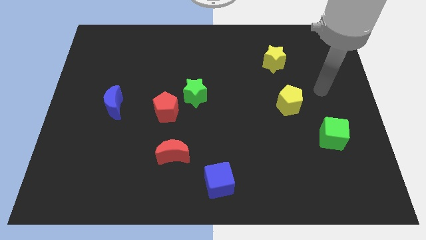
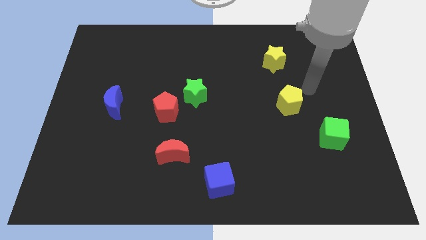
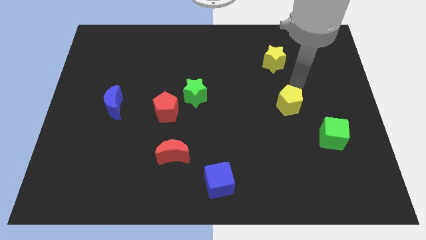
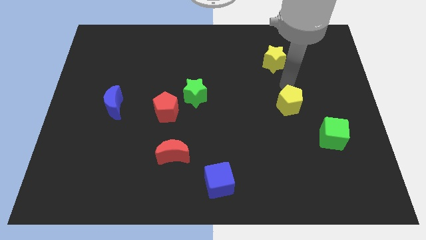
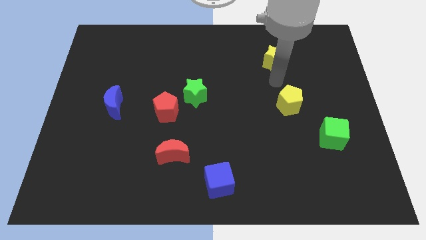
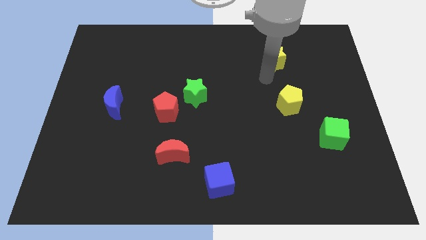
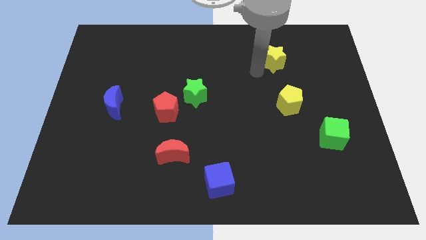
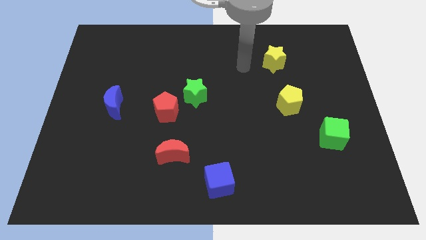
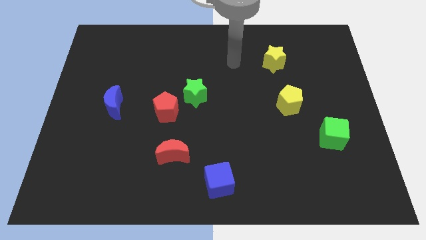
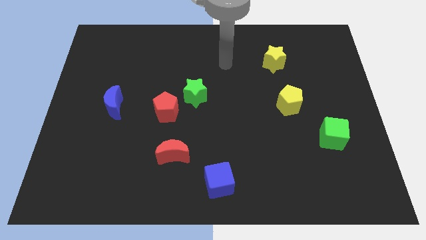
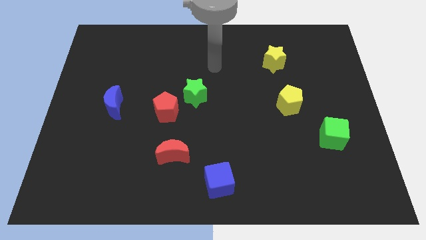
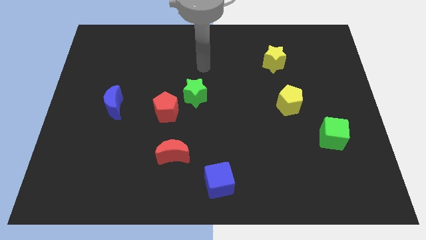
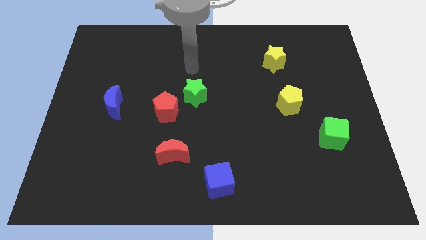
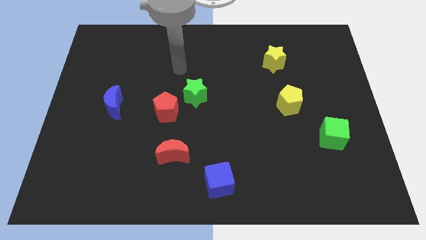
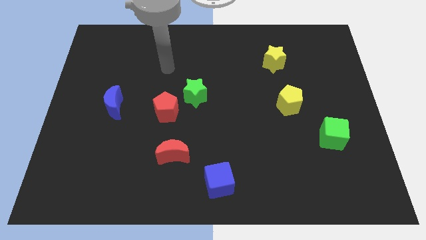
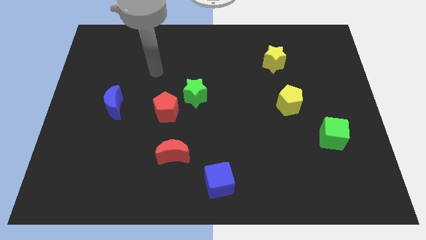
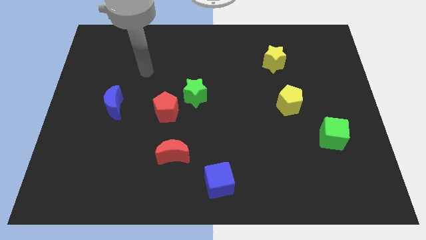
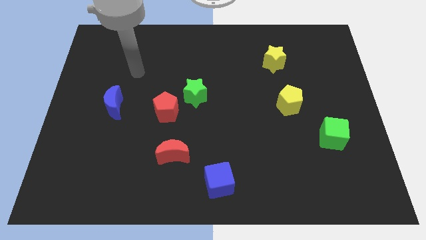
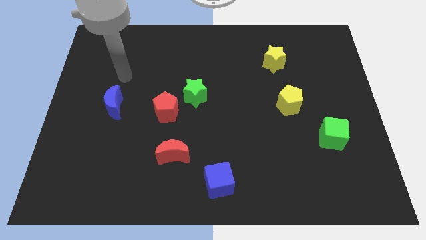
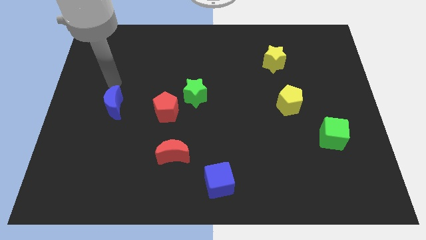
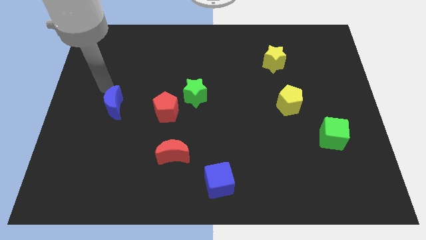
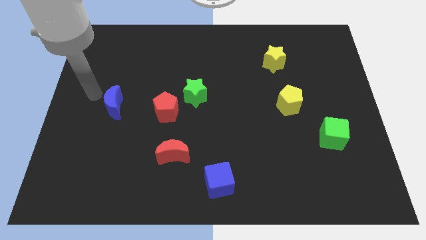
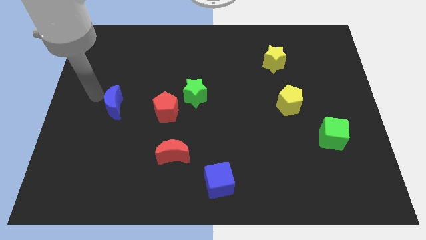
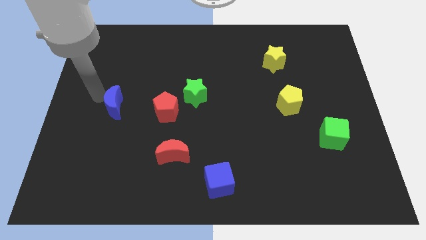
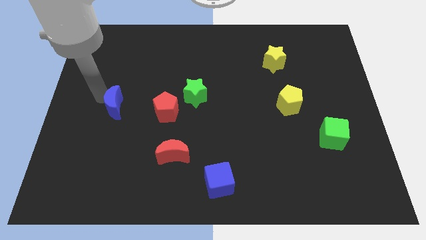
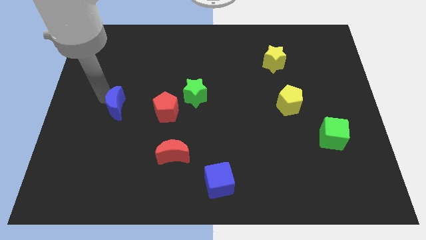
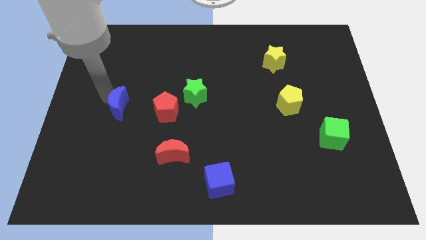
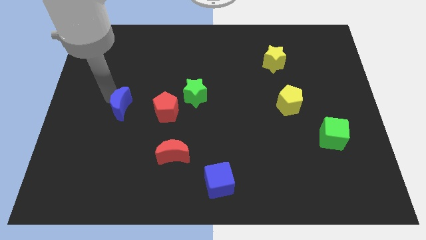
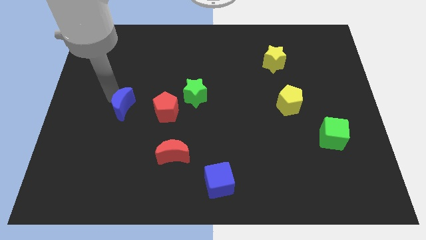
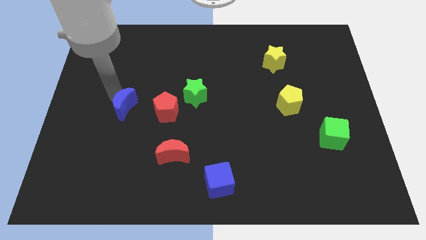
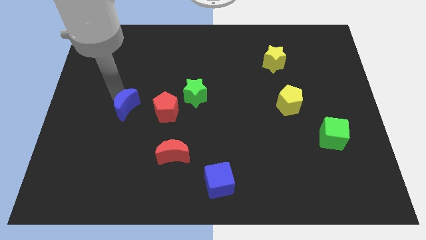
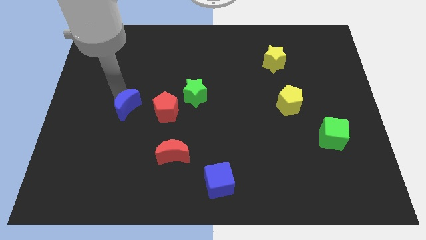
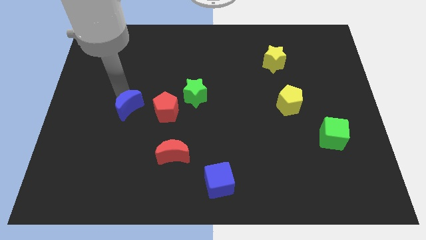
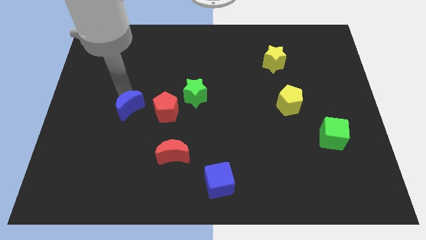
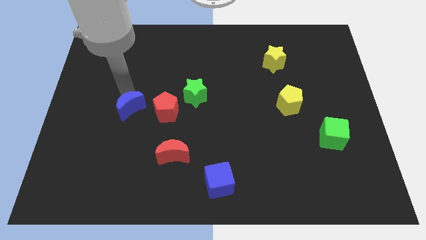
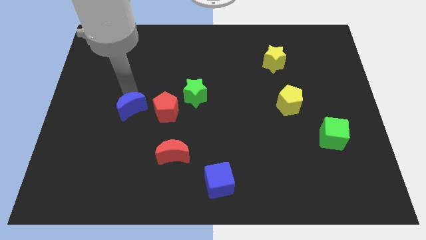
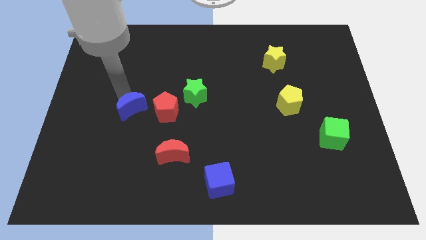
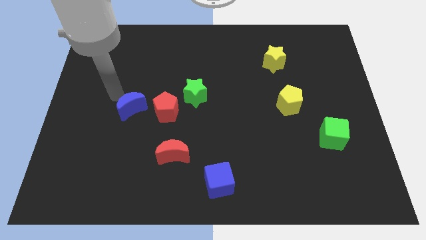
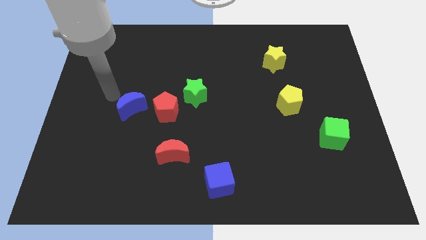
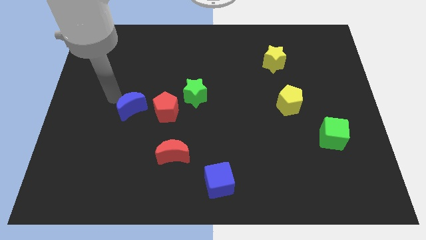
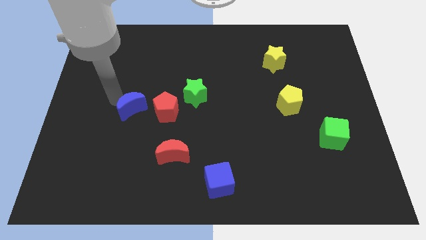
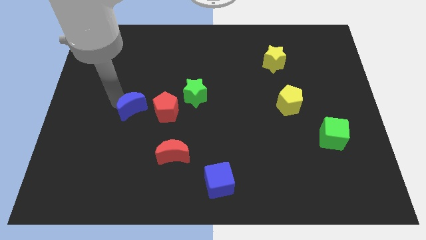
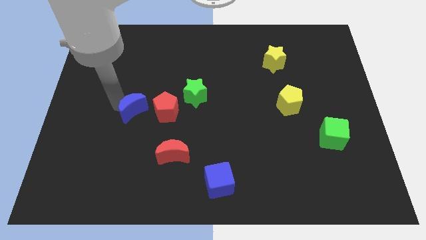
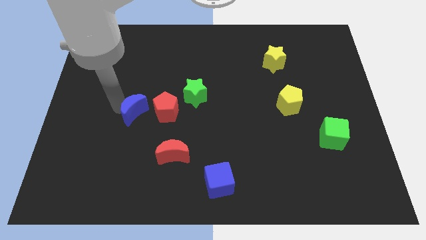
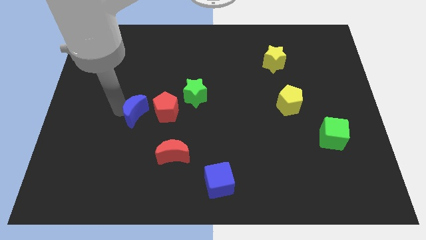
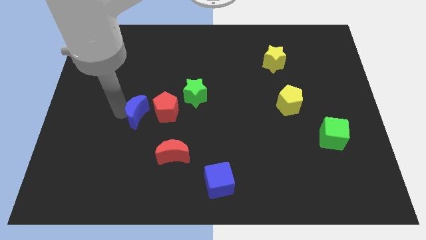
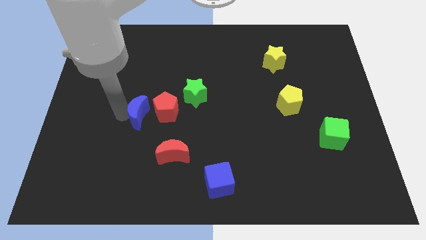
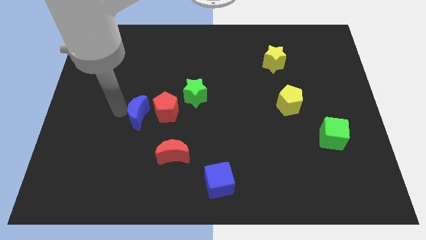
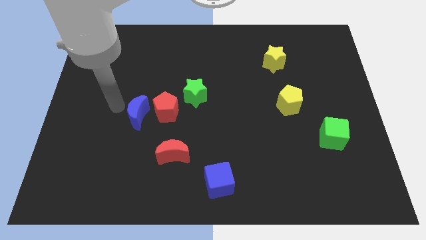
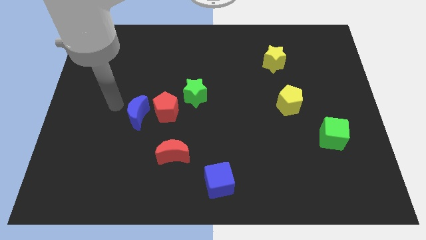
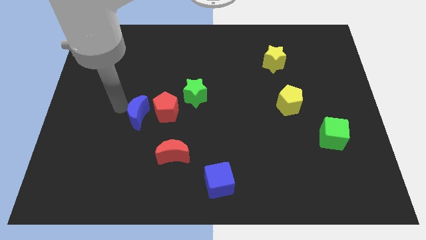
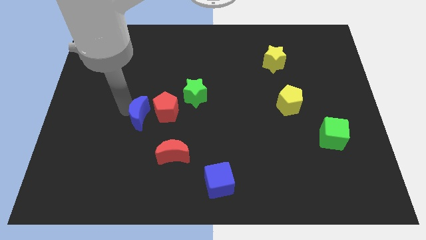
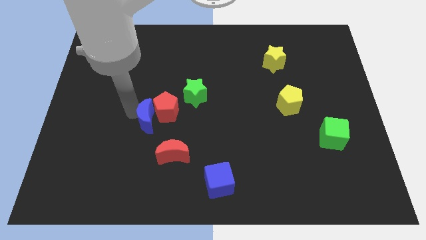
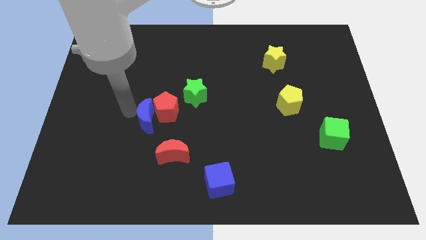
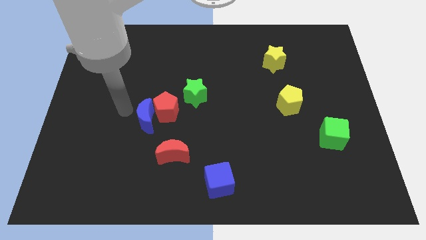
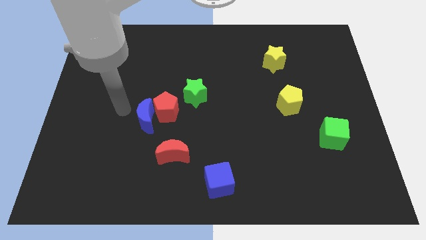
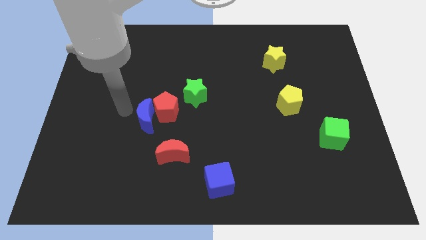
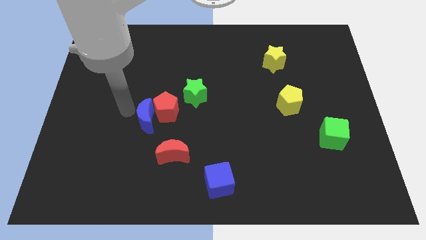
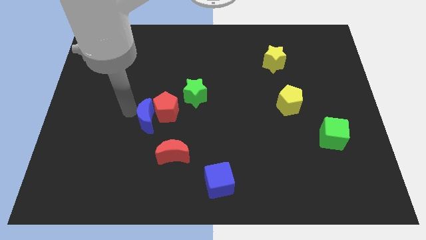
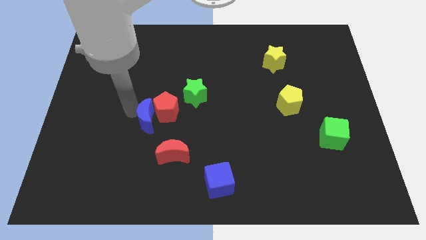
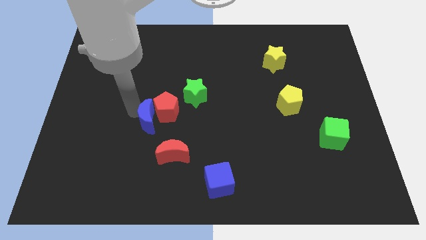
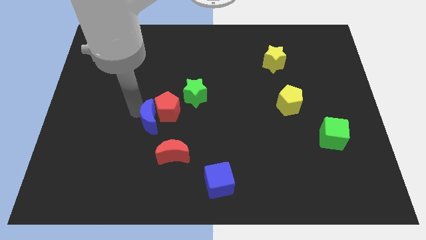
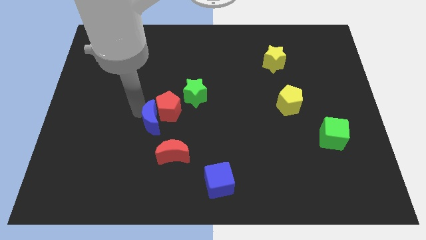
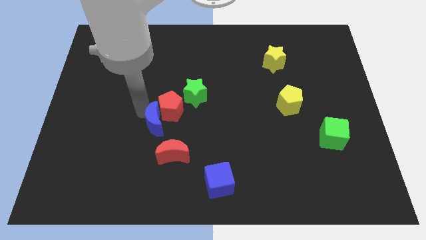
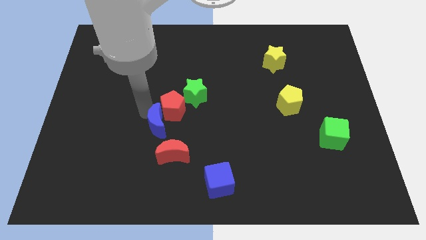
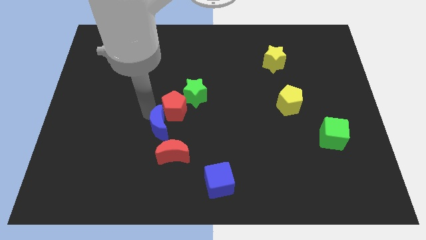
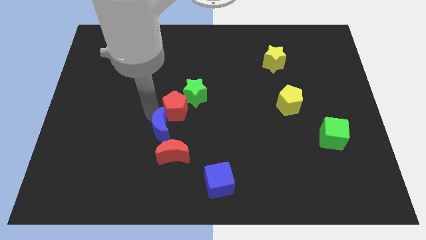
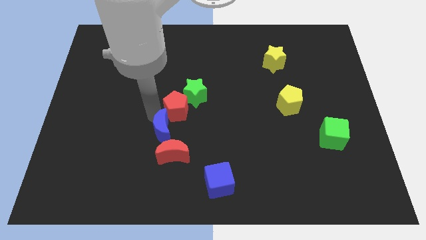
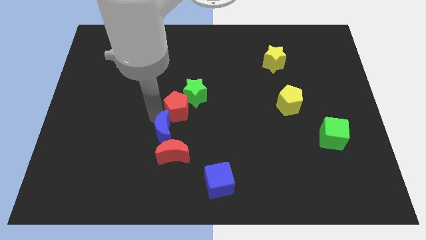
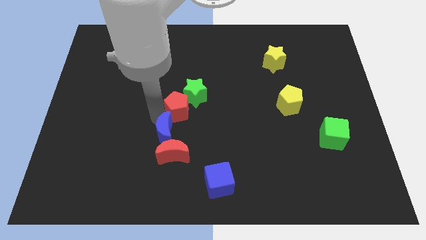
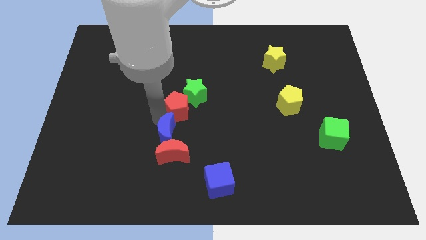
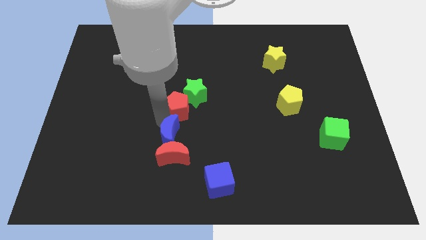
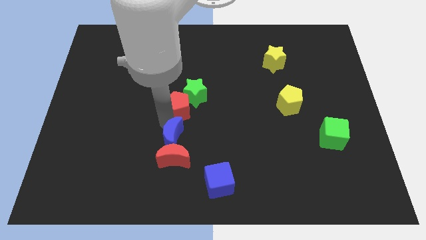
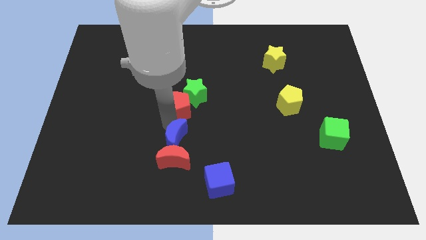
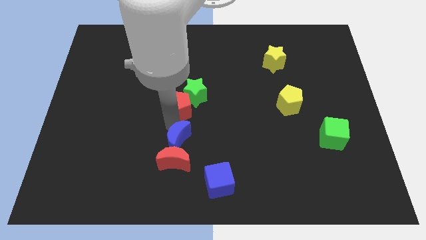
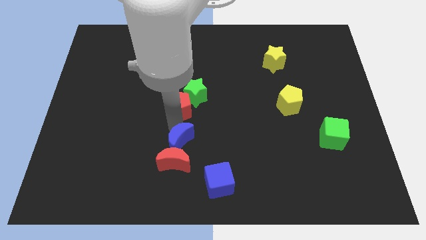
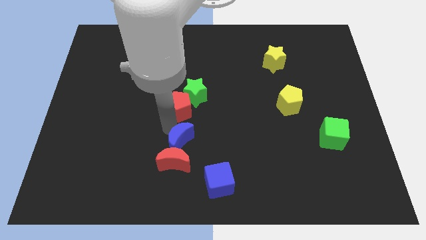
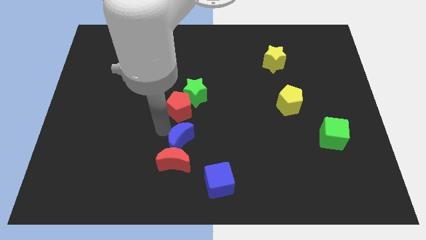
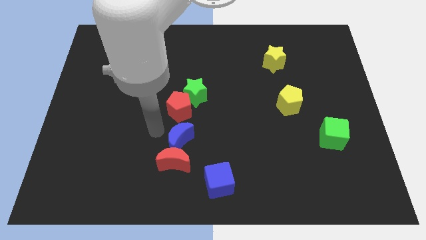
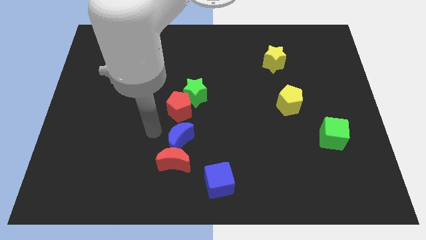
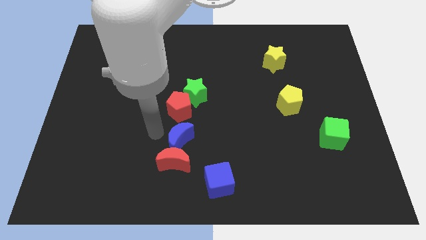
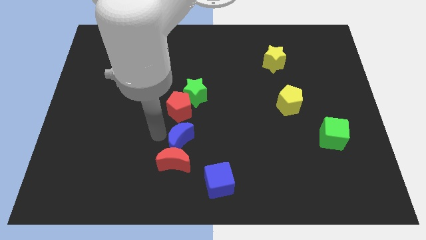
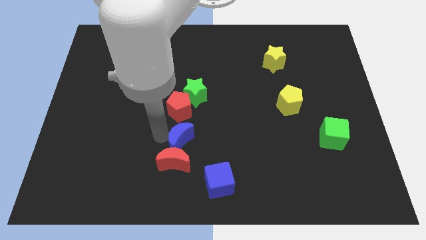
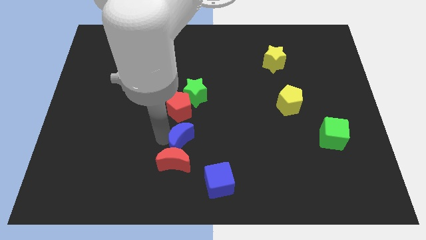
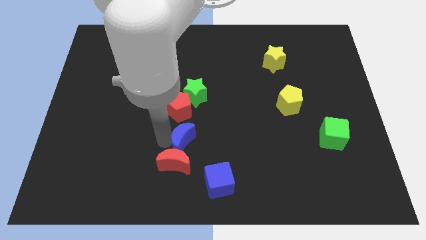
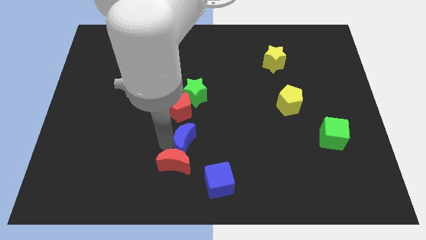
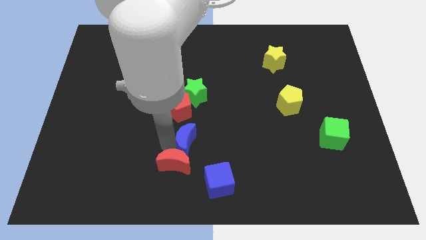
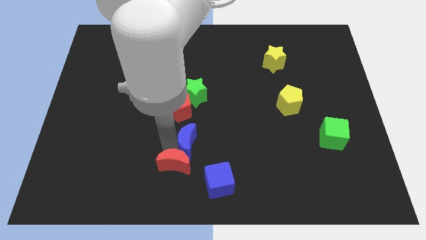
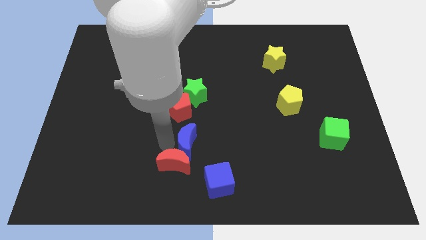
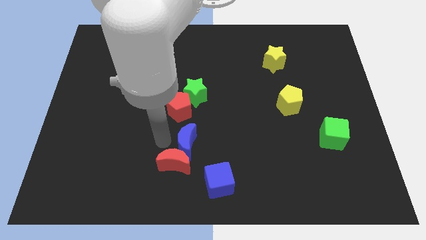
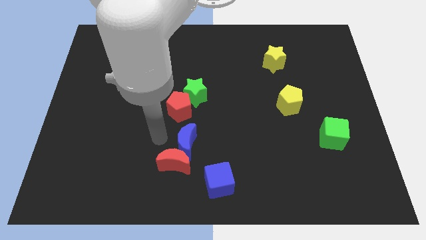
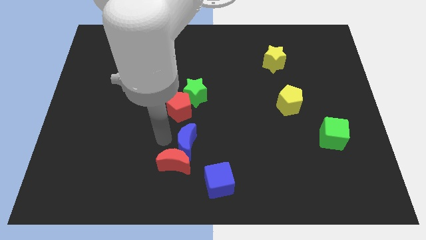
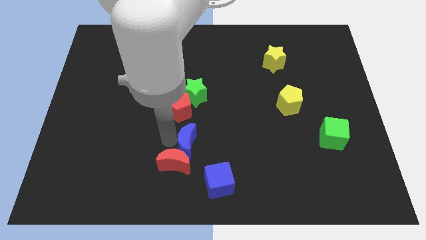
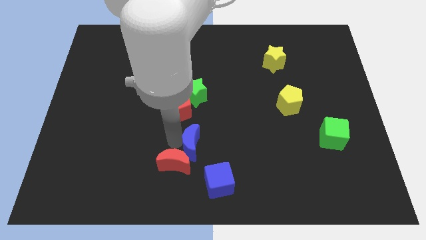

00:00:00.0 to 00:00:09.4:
put the blue moon to the right side of the red moon
